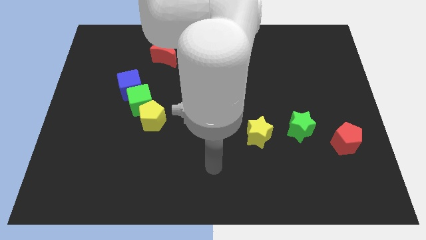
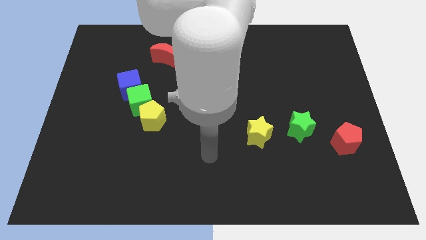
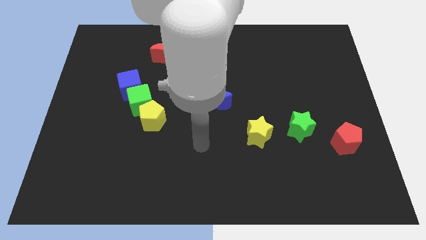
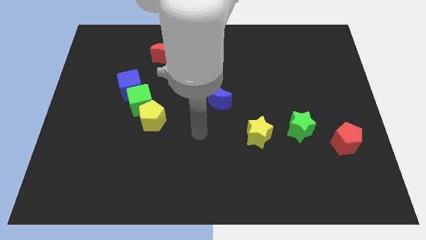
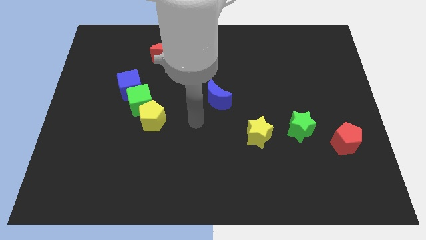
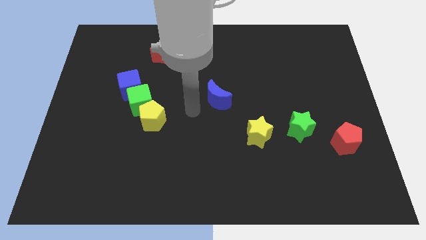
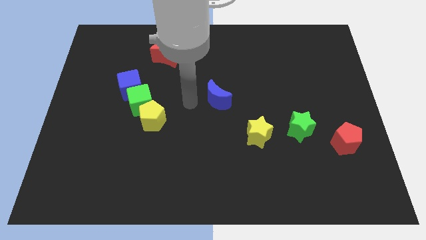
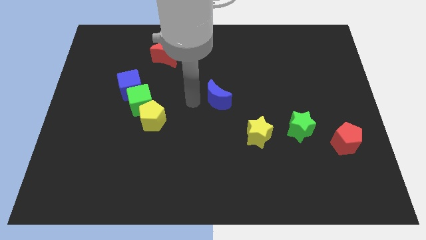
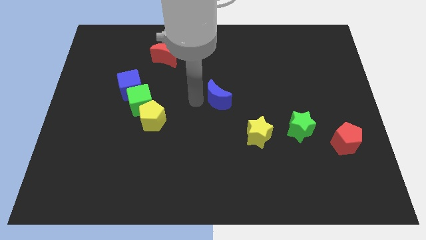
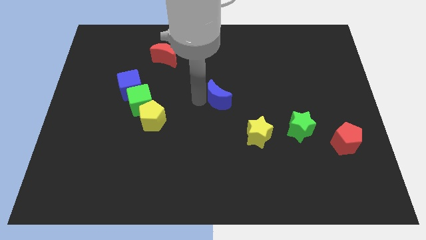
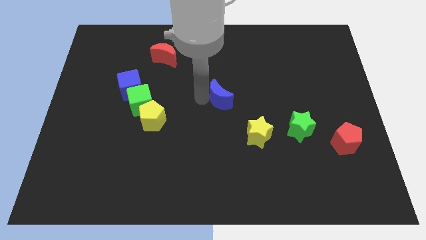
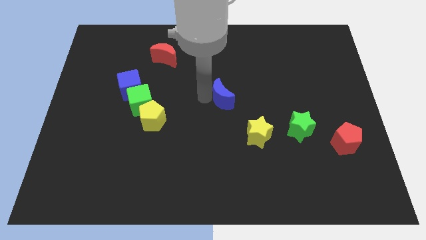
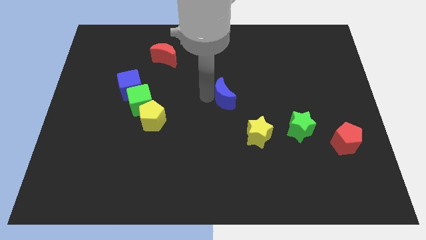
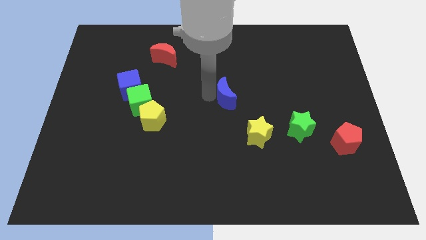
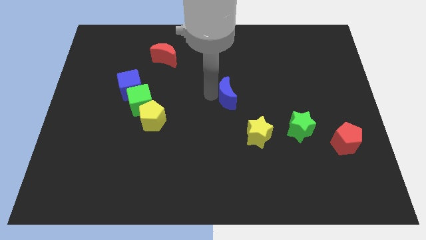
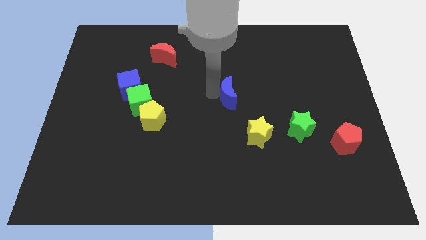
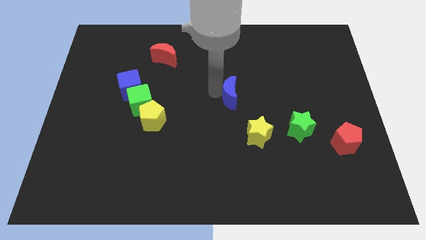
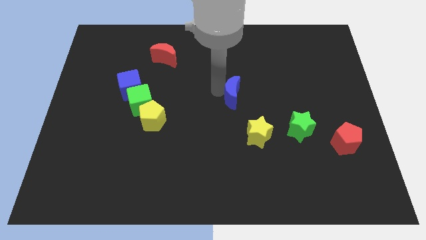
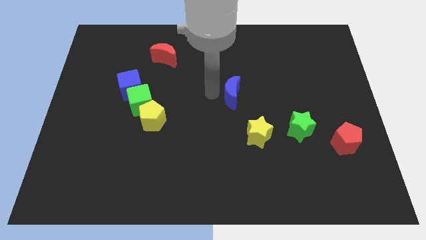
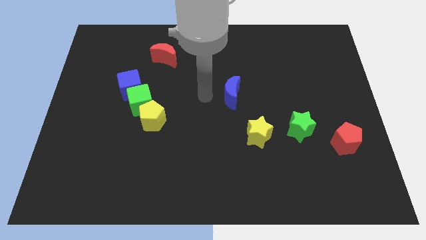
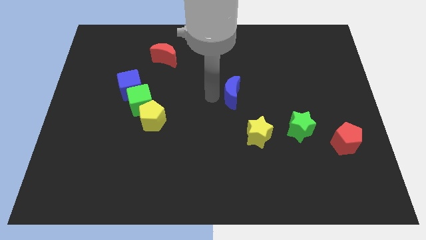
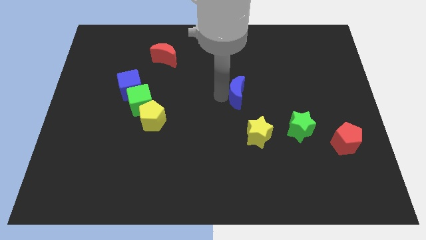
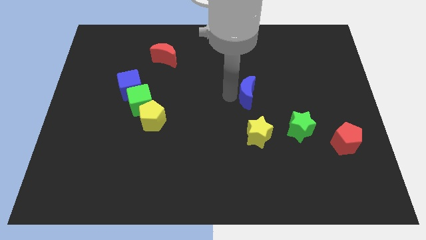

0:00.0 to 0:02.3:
slightly move the blue moon to the right

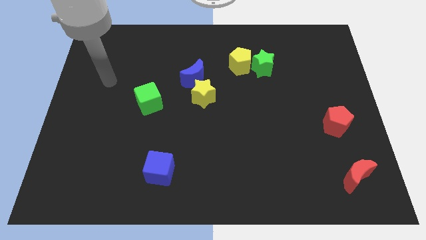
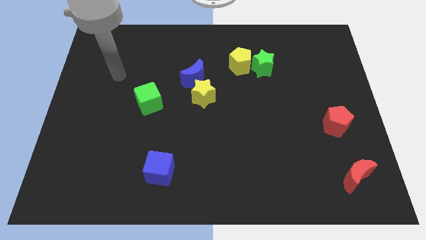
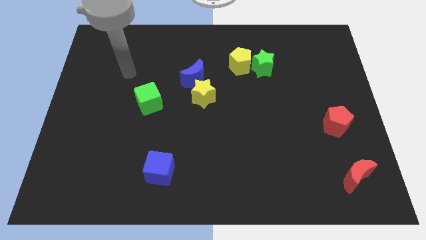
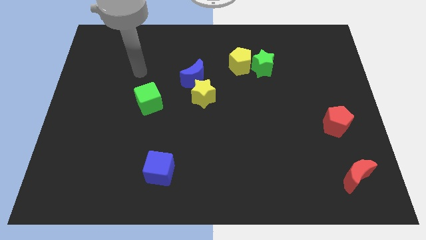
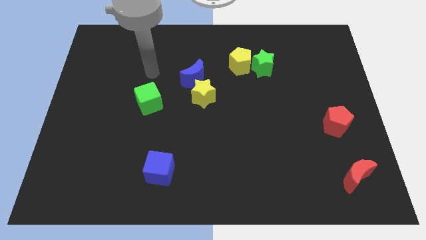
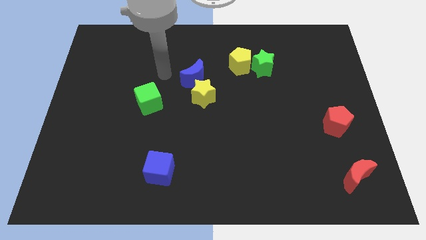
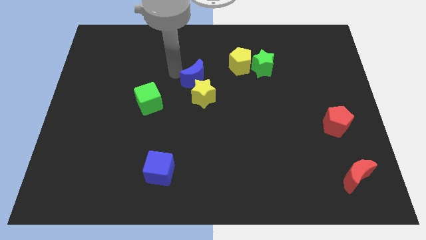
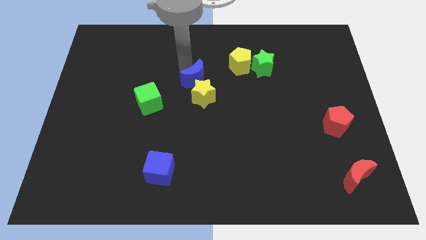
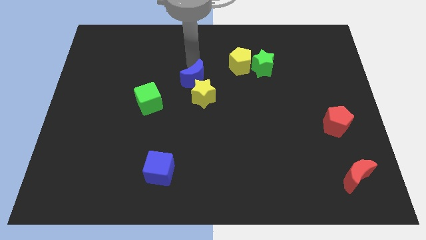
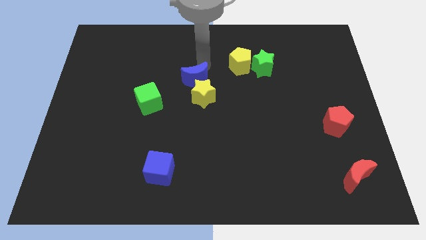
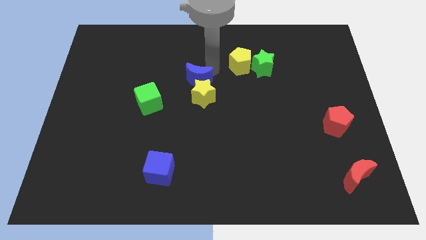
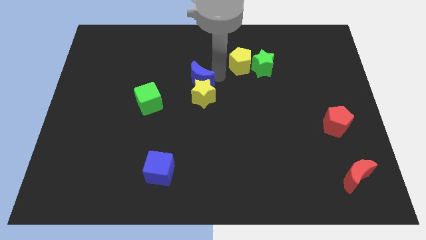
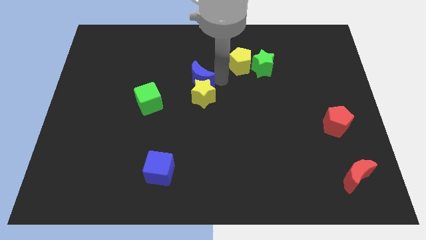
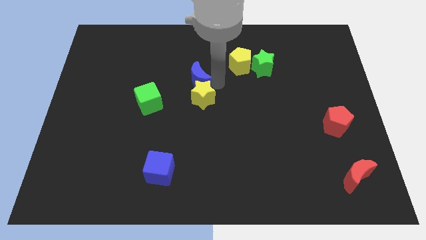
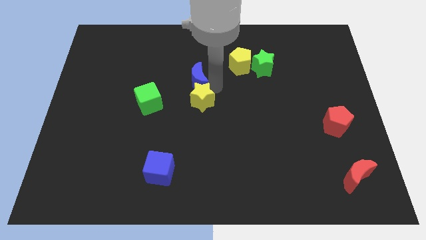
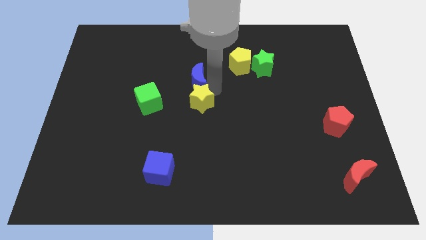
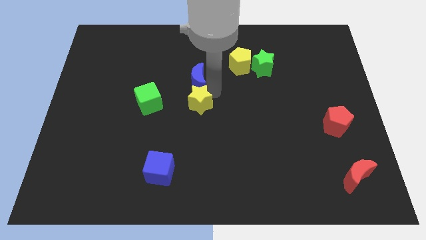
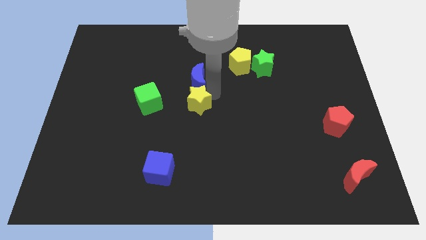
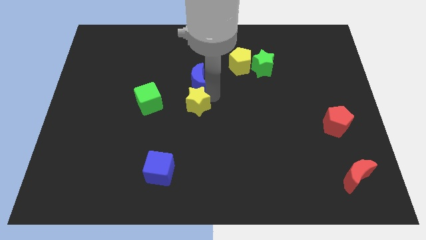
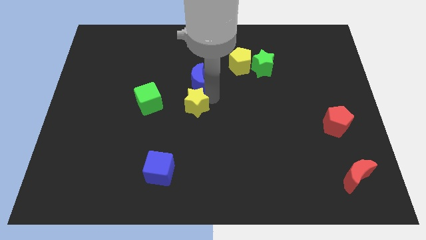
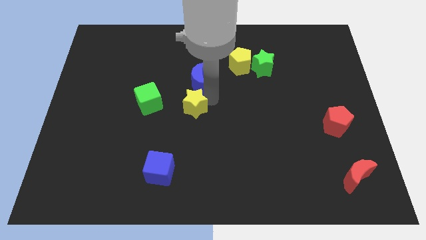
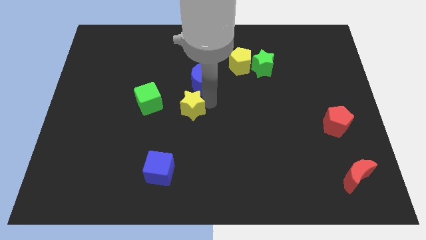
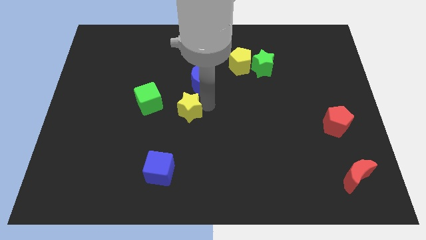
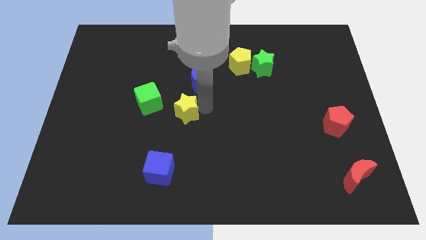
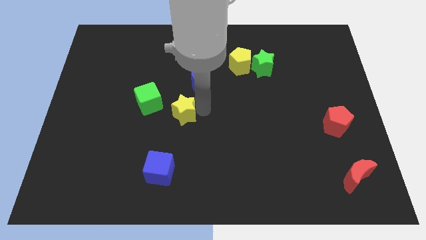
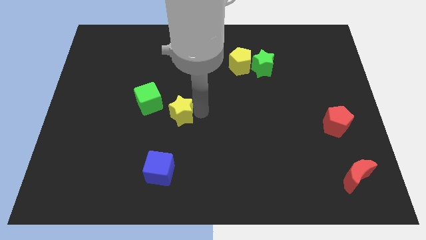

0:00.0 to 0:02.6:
move the yellow star down and then left a little

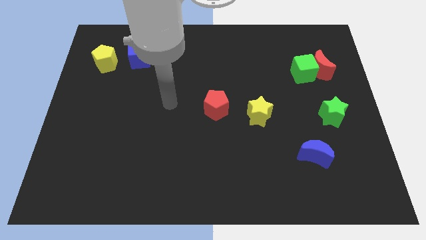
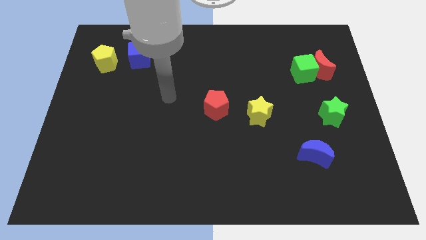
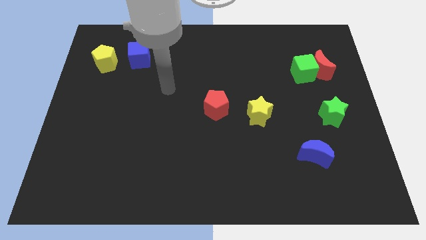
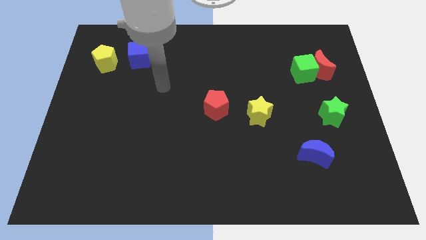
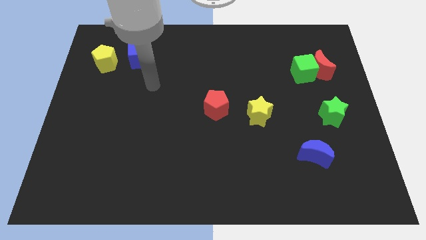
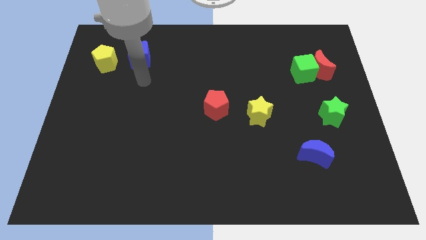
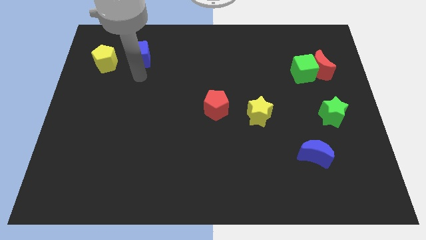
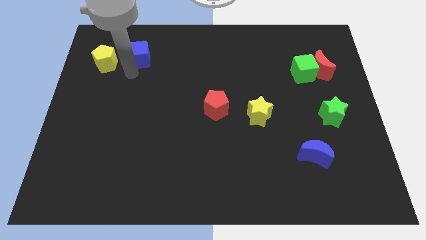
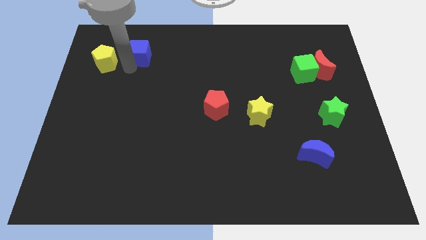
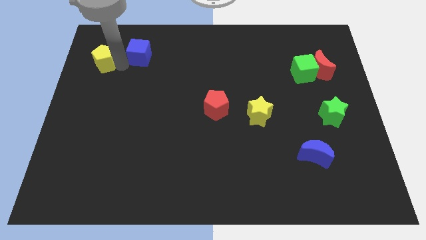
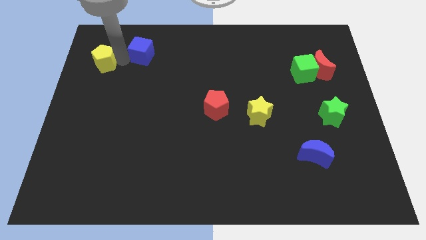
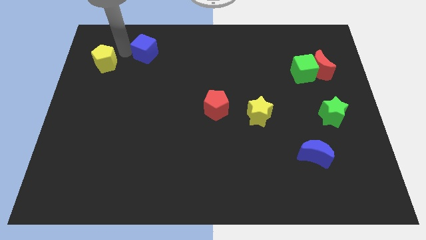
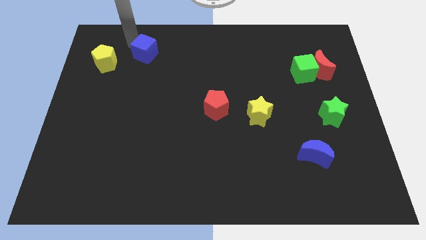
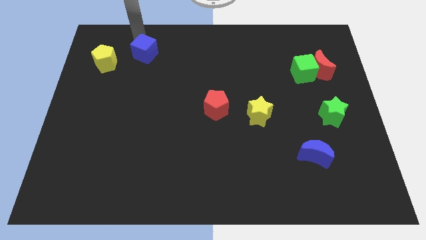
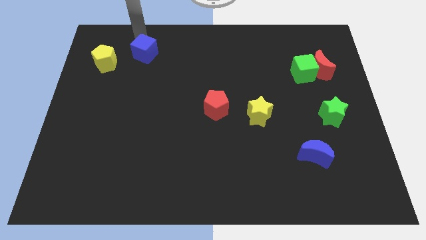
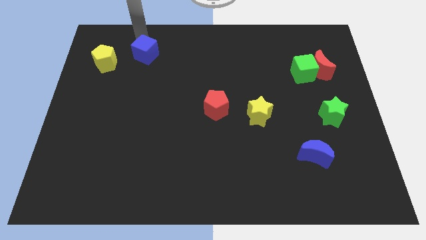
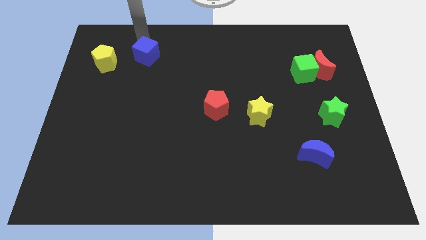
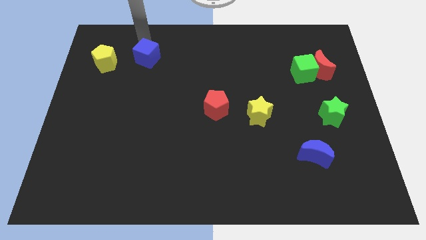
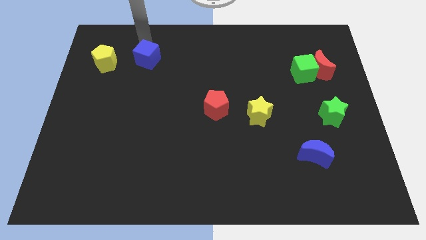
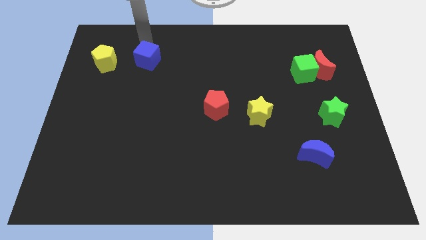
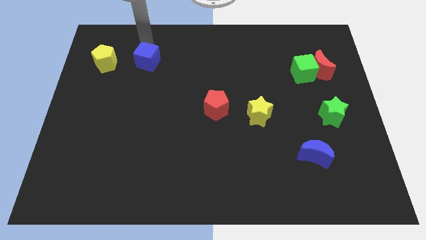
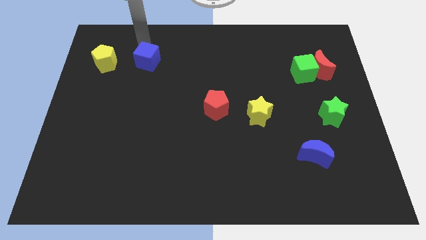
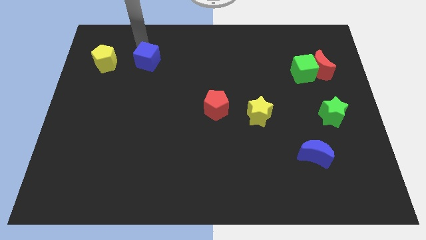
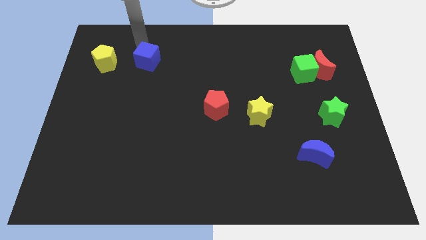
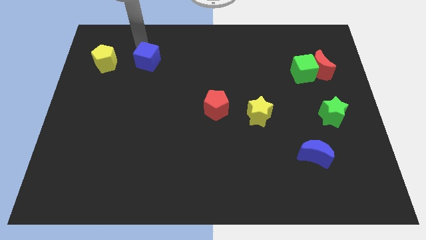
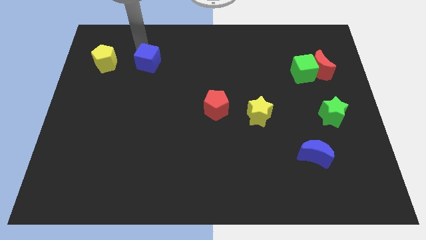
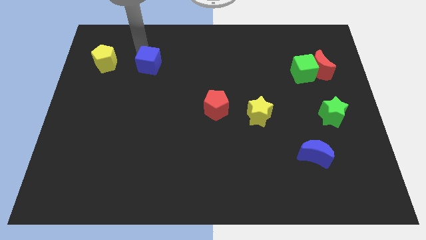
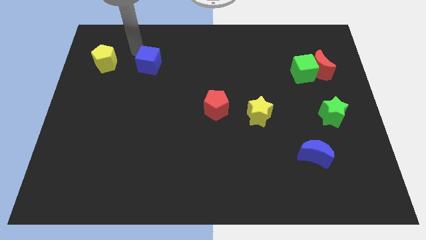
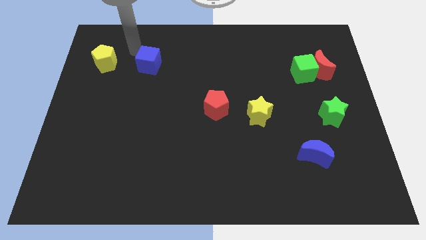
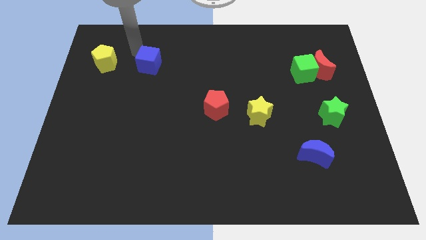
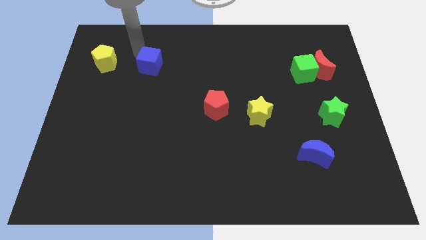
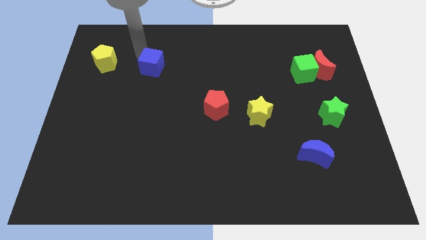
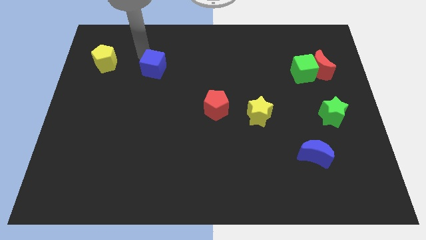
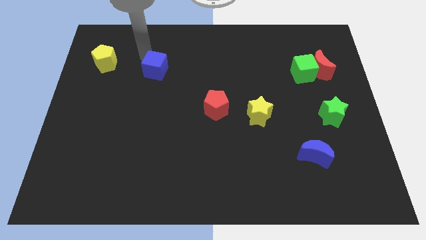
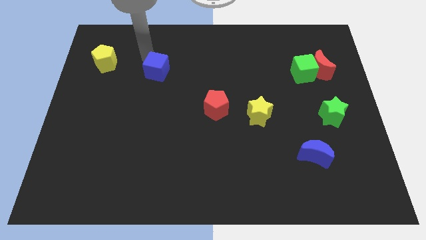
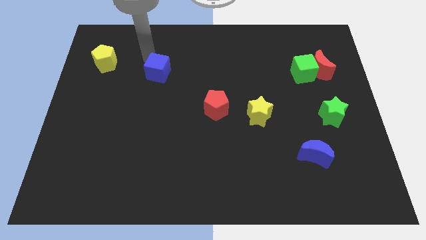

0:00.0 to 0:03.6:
slide the blue cube downwards and then right a bit
